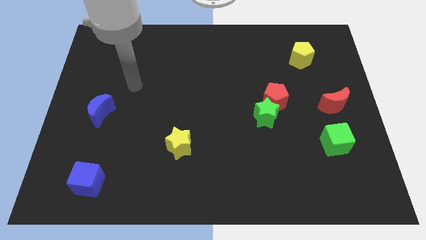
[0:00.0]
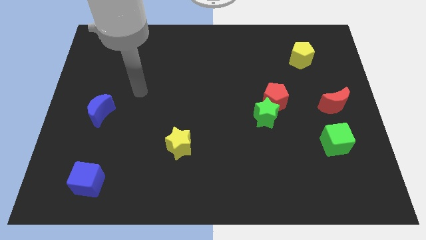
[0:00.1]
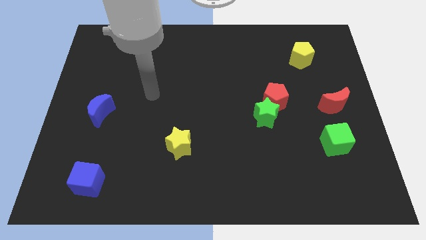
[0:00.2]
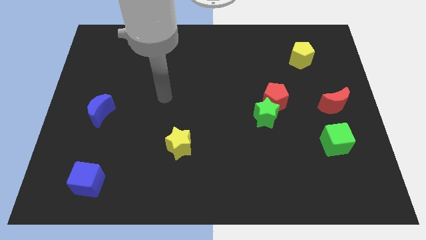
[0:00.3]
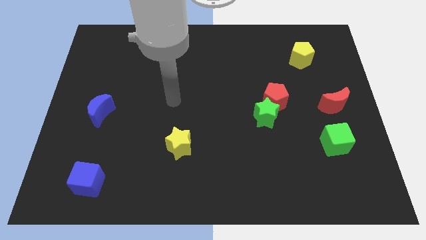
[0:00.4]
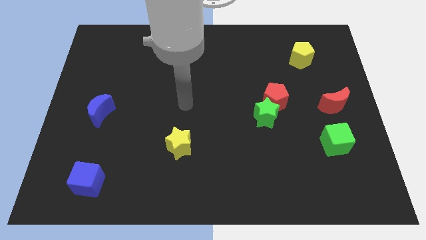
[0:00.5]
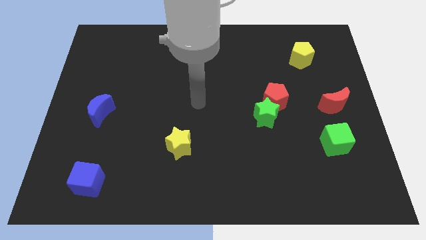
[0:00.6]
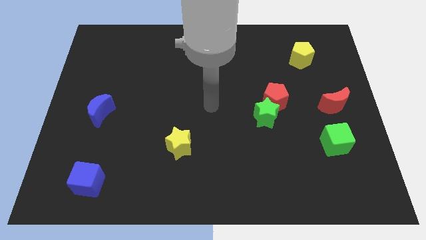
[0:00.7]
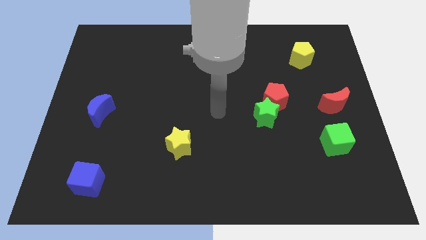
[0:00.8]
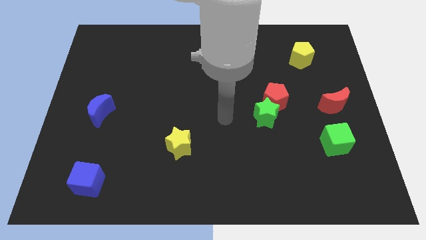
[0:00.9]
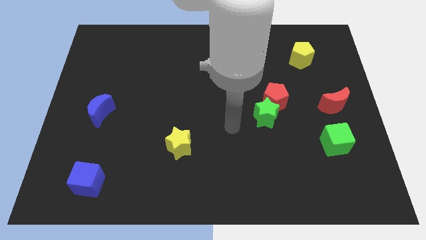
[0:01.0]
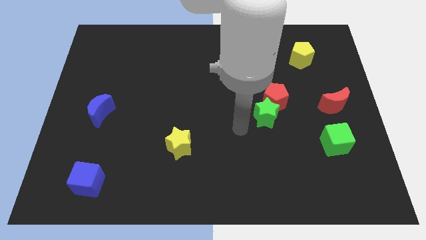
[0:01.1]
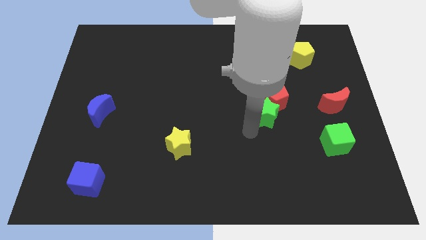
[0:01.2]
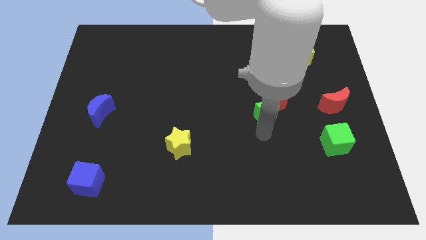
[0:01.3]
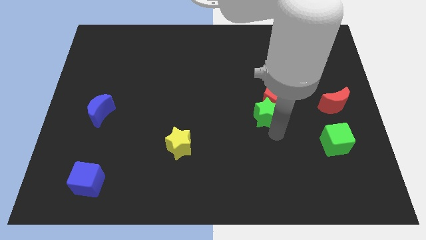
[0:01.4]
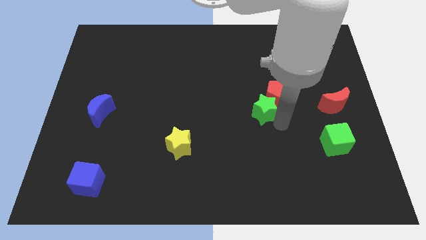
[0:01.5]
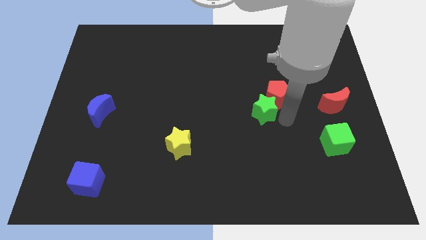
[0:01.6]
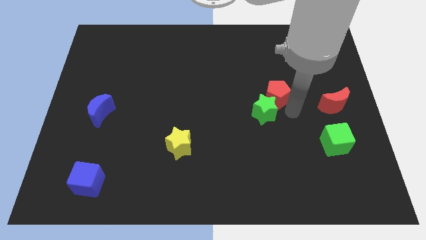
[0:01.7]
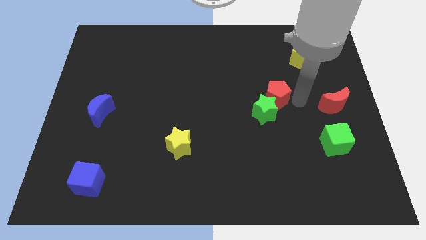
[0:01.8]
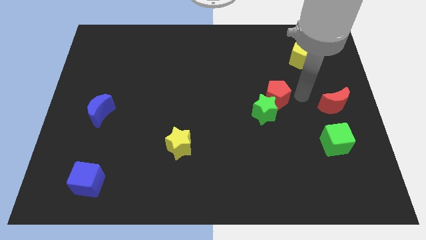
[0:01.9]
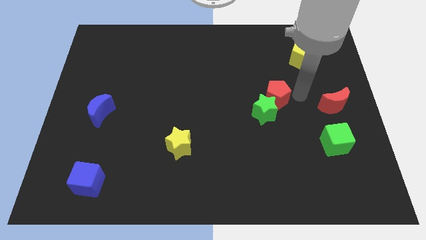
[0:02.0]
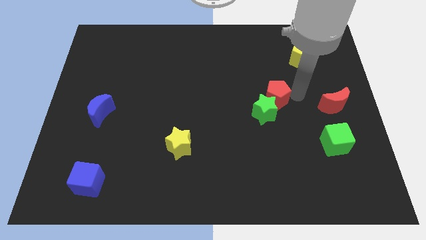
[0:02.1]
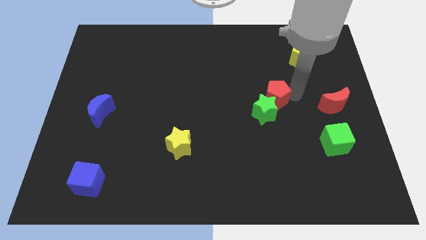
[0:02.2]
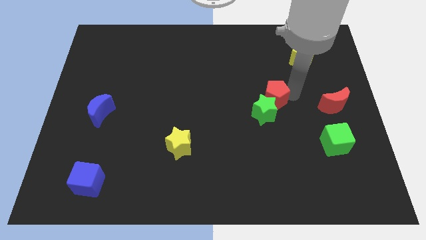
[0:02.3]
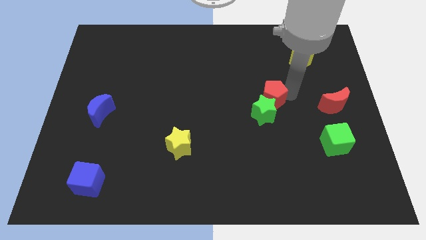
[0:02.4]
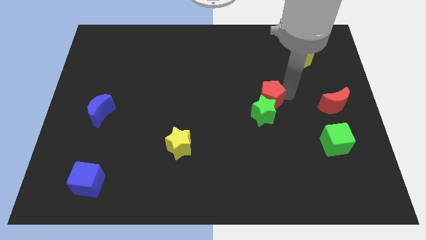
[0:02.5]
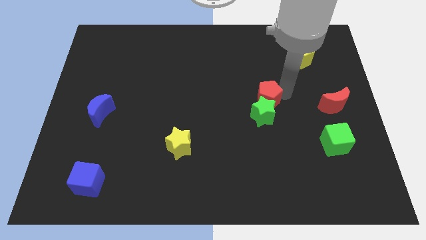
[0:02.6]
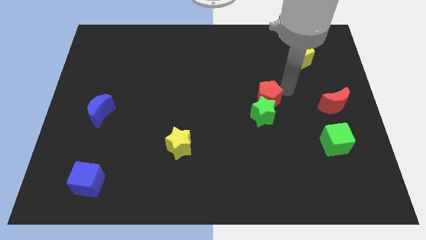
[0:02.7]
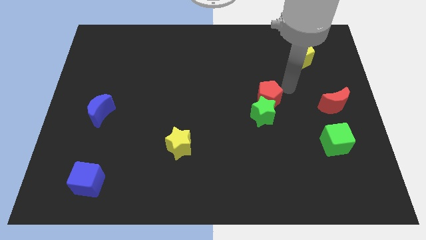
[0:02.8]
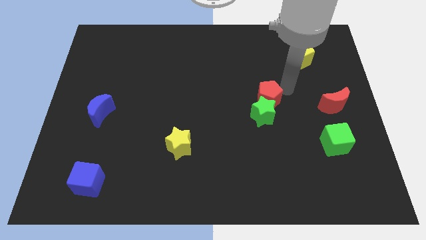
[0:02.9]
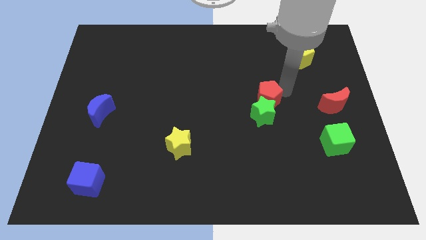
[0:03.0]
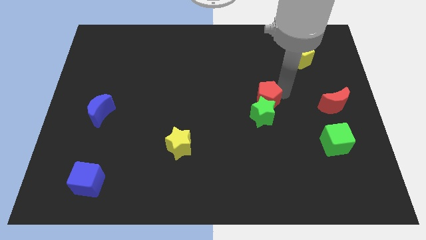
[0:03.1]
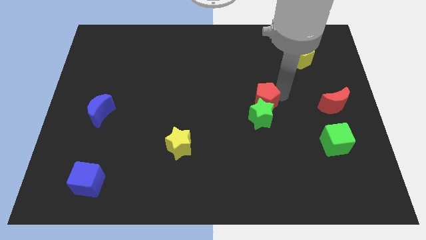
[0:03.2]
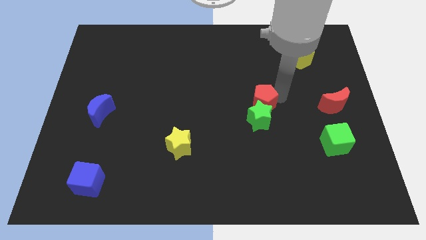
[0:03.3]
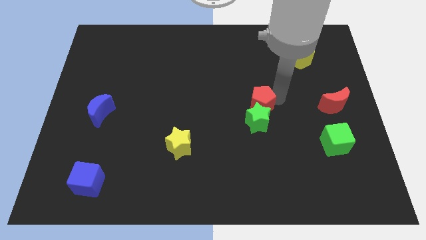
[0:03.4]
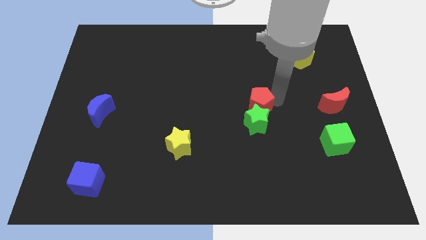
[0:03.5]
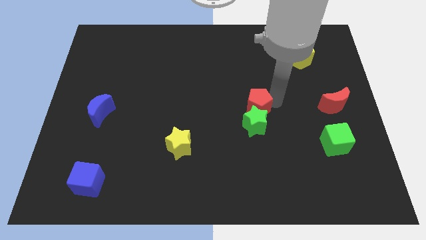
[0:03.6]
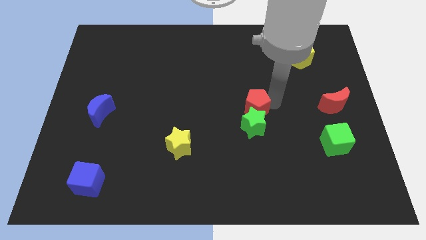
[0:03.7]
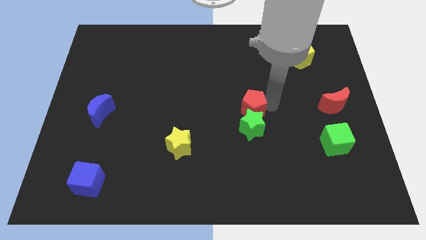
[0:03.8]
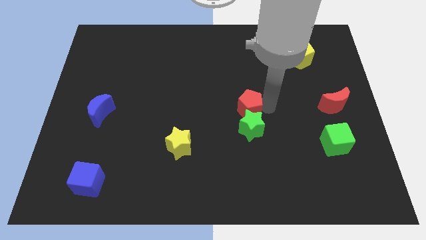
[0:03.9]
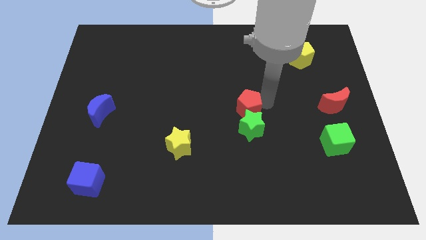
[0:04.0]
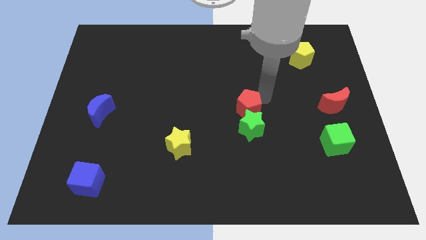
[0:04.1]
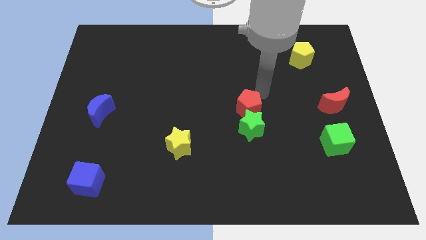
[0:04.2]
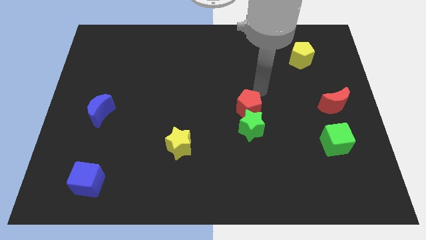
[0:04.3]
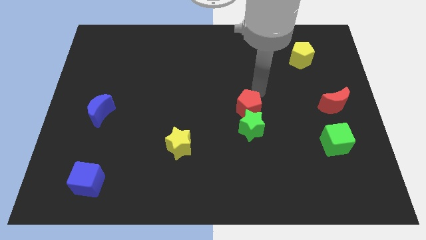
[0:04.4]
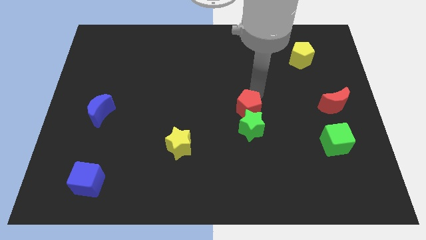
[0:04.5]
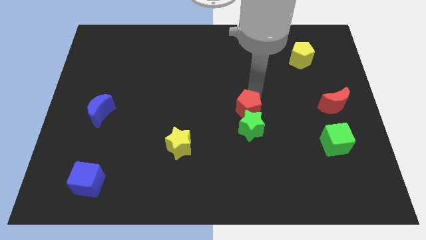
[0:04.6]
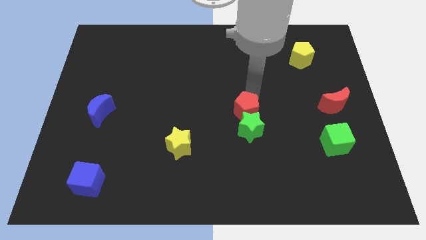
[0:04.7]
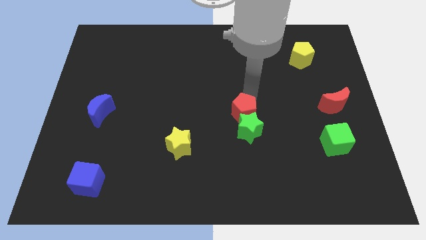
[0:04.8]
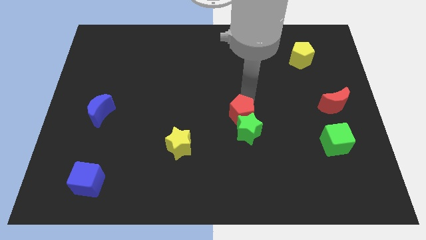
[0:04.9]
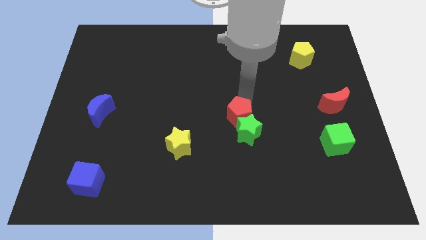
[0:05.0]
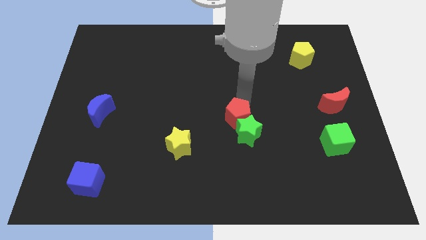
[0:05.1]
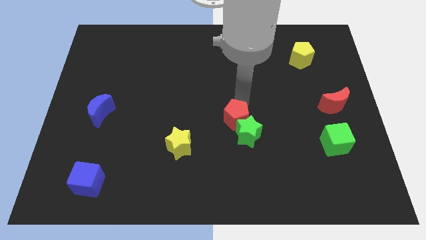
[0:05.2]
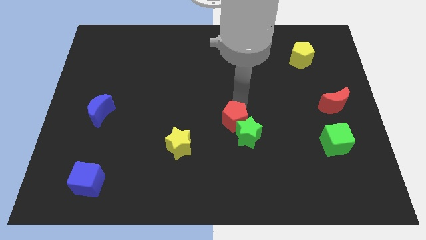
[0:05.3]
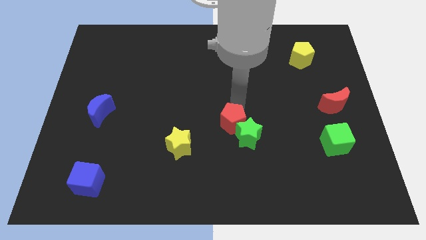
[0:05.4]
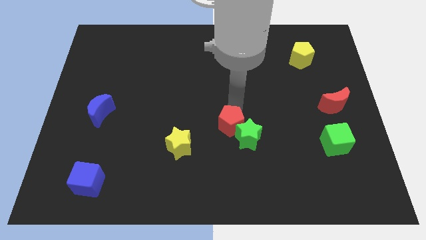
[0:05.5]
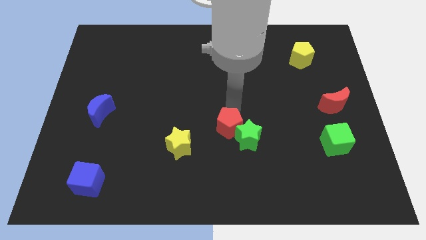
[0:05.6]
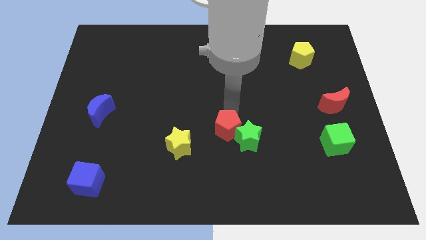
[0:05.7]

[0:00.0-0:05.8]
push the red pentagon to the right side of the yellow star
